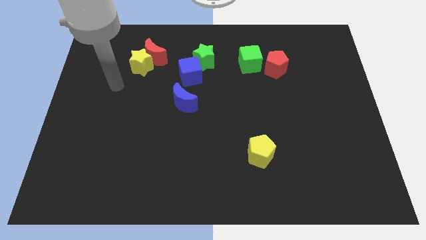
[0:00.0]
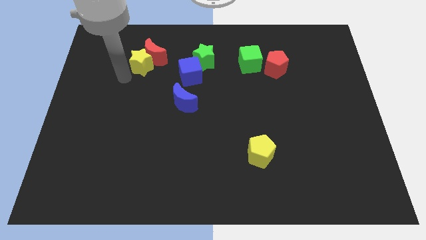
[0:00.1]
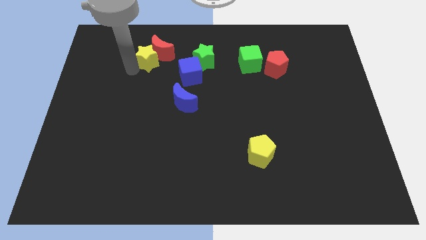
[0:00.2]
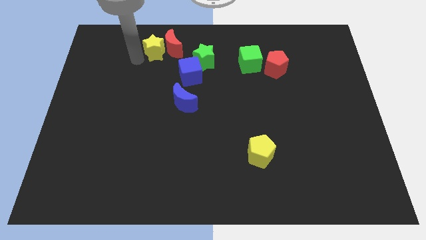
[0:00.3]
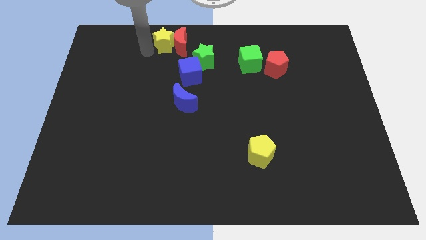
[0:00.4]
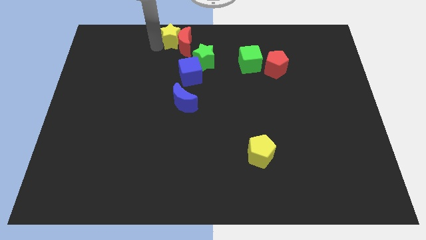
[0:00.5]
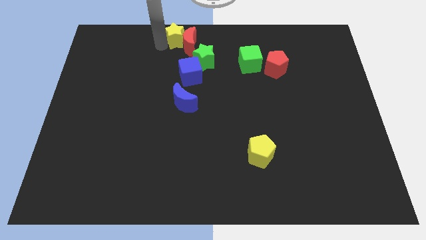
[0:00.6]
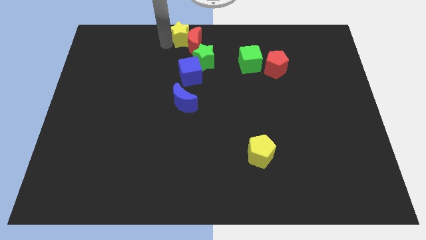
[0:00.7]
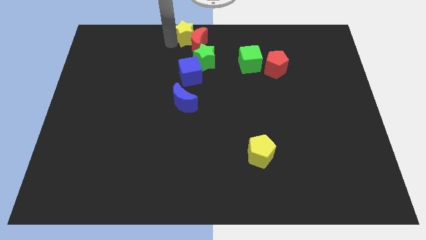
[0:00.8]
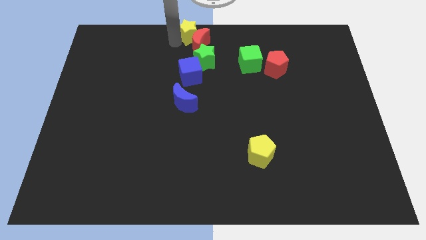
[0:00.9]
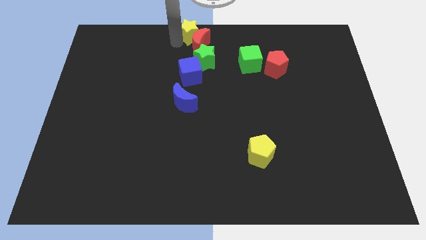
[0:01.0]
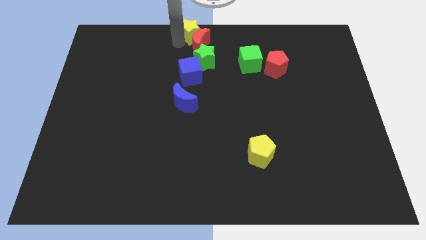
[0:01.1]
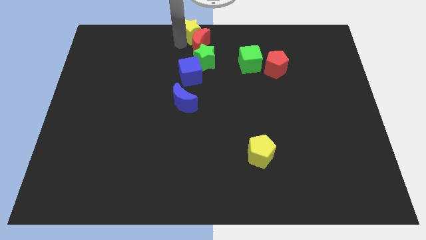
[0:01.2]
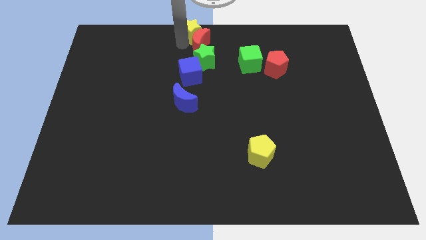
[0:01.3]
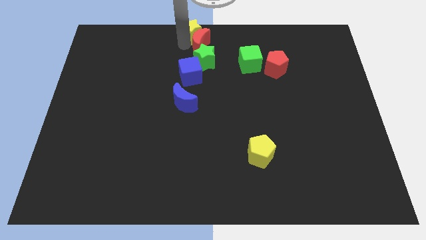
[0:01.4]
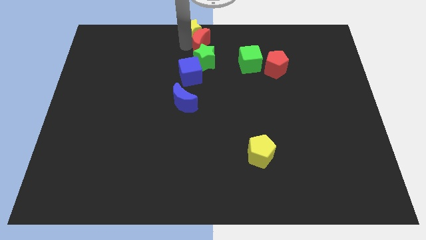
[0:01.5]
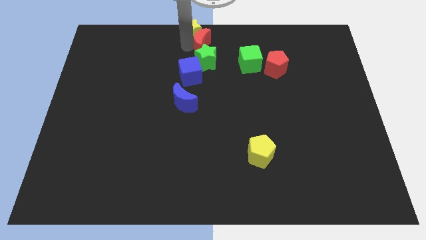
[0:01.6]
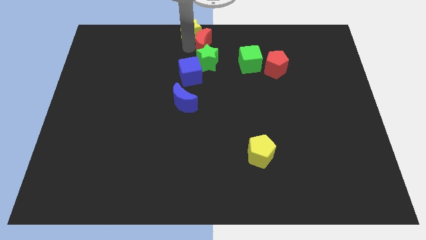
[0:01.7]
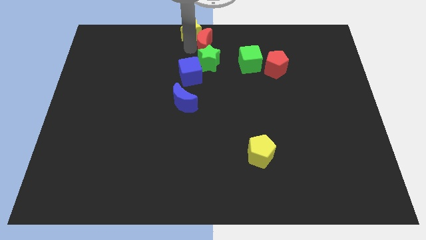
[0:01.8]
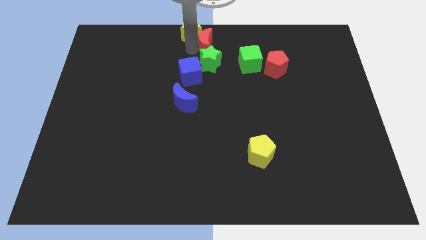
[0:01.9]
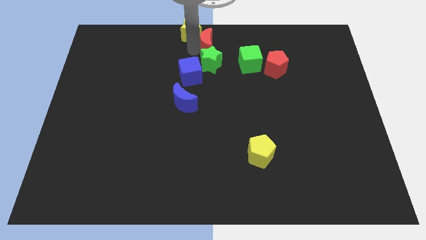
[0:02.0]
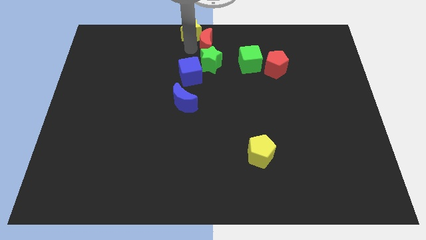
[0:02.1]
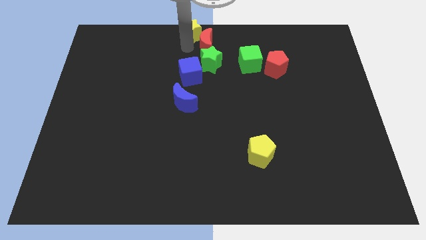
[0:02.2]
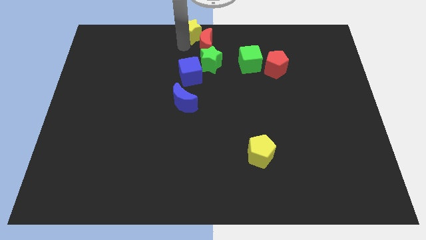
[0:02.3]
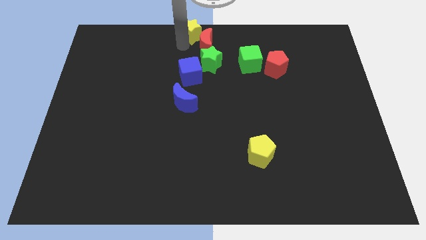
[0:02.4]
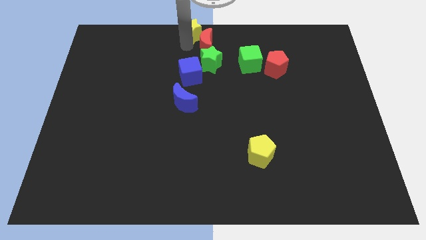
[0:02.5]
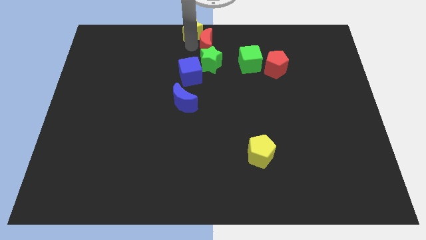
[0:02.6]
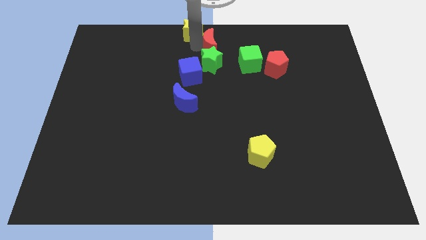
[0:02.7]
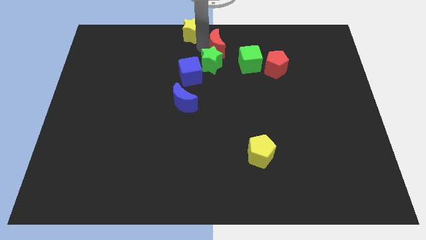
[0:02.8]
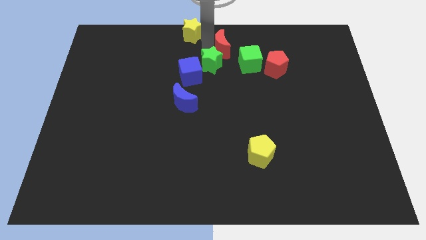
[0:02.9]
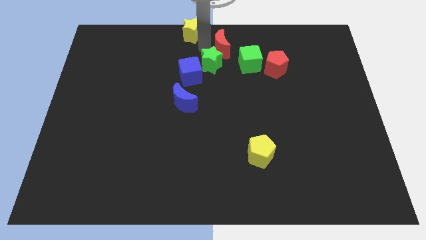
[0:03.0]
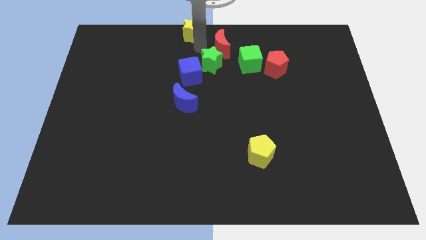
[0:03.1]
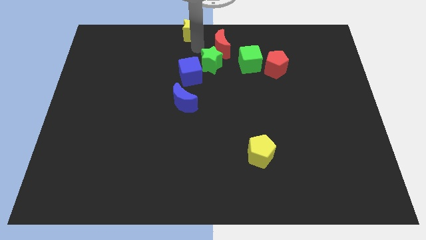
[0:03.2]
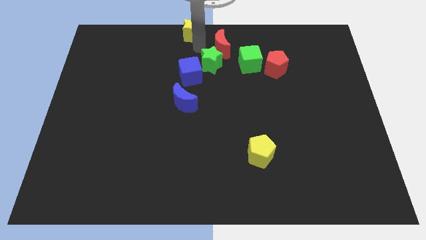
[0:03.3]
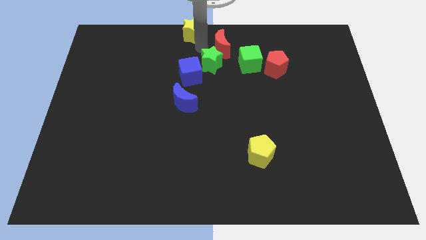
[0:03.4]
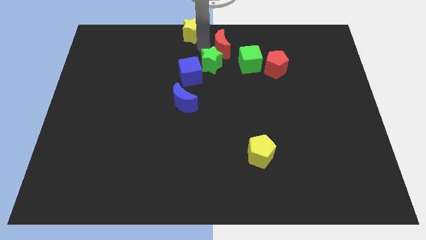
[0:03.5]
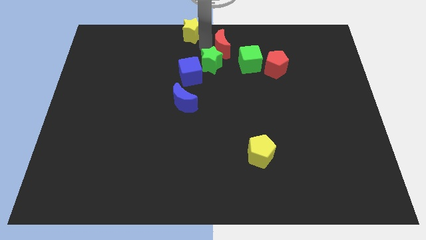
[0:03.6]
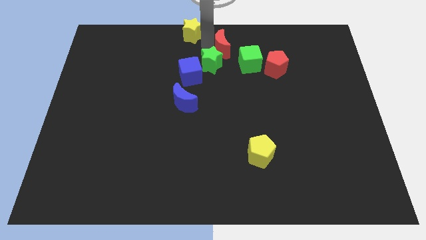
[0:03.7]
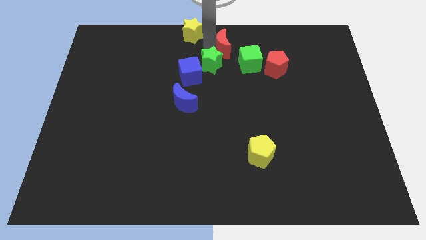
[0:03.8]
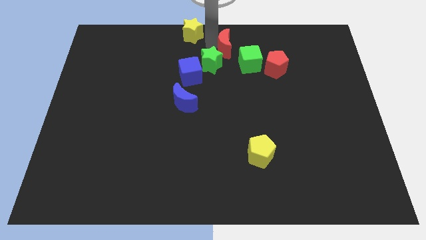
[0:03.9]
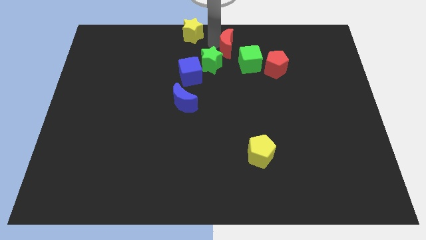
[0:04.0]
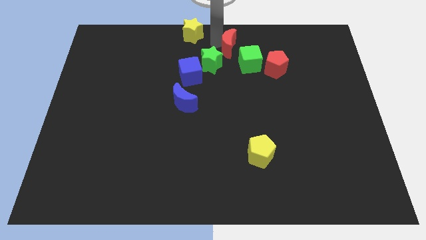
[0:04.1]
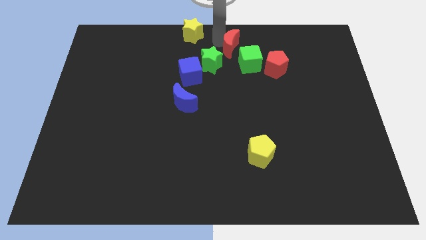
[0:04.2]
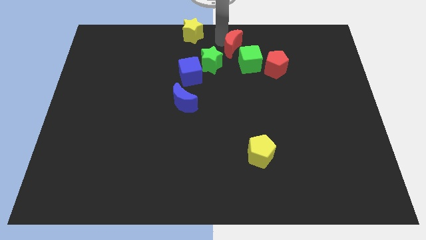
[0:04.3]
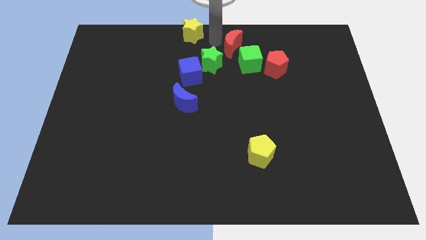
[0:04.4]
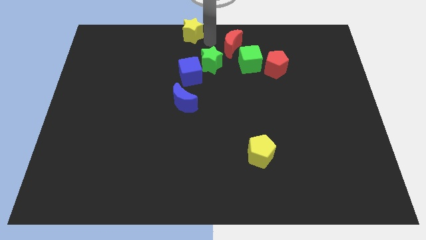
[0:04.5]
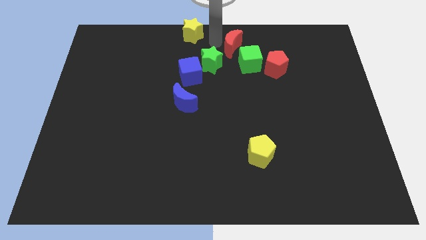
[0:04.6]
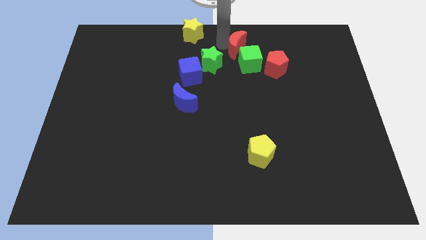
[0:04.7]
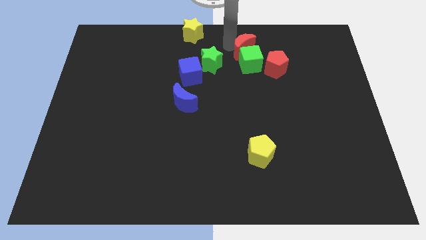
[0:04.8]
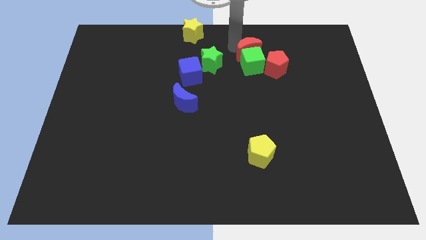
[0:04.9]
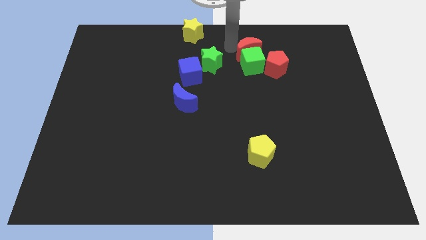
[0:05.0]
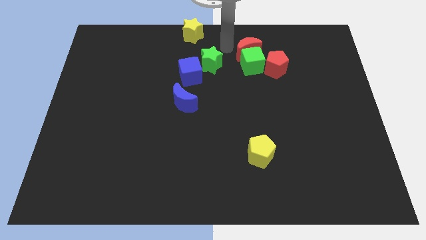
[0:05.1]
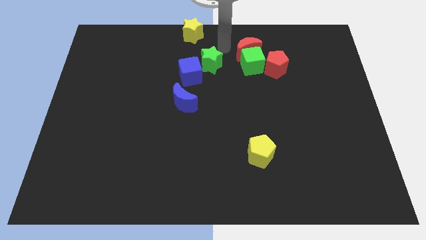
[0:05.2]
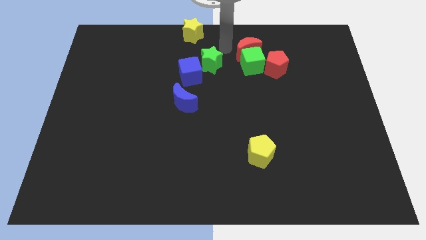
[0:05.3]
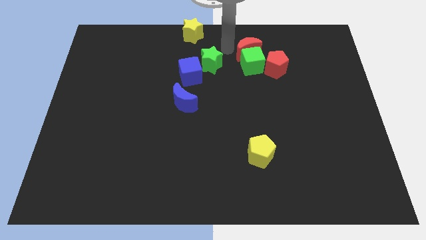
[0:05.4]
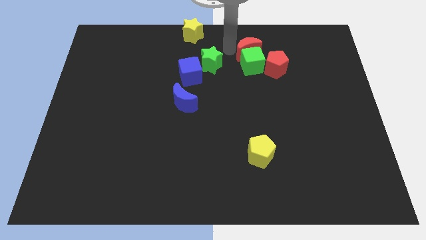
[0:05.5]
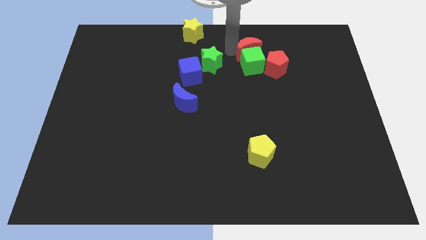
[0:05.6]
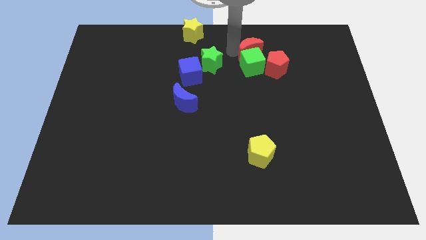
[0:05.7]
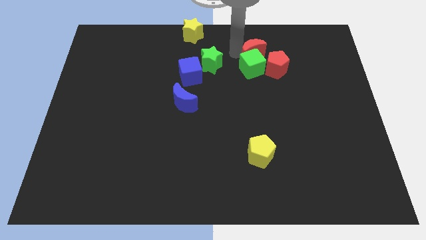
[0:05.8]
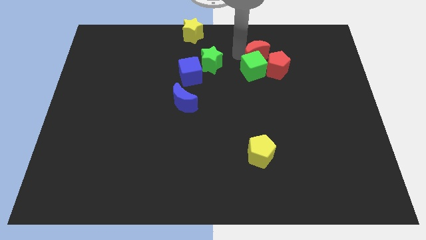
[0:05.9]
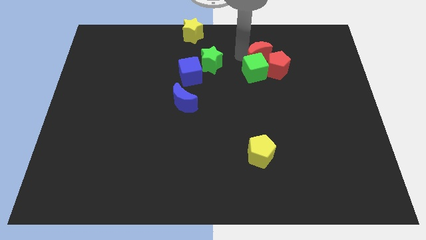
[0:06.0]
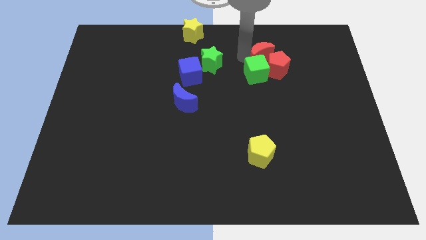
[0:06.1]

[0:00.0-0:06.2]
push the red moon next to the red pentagon

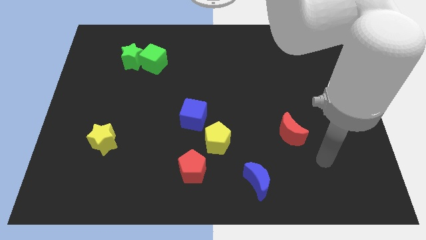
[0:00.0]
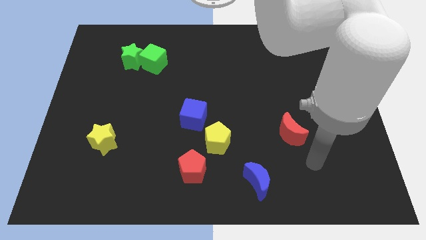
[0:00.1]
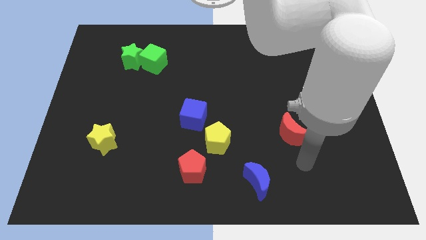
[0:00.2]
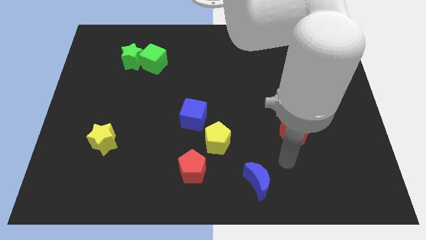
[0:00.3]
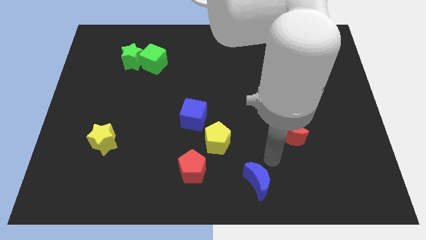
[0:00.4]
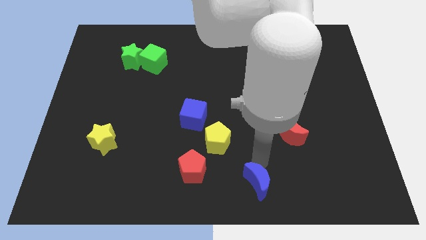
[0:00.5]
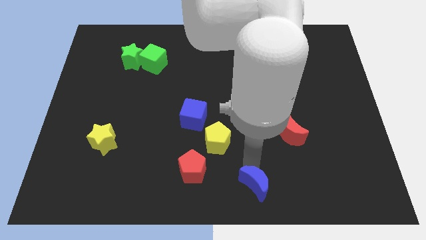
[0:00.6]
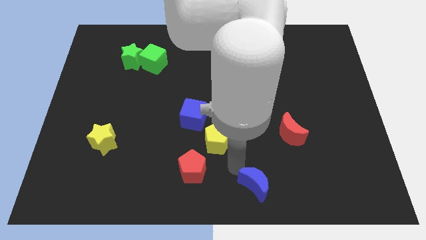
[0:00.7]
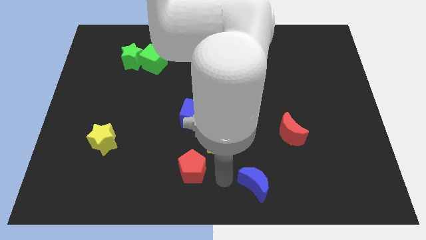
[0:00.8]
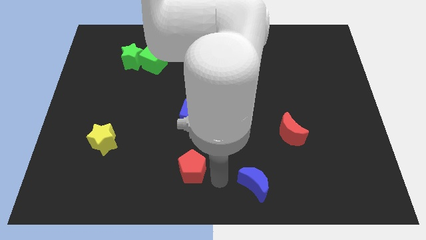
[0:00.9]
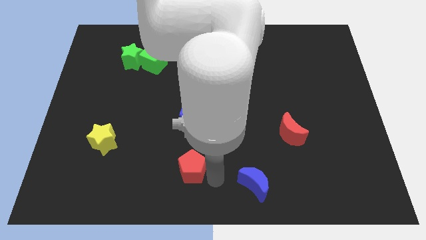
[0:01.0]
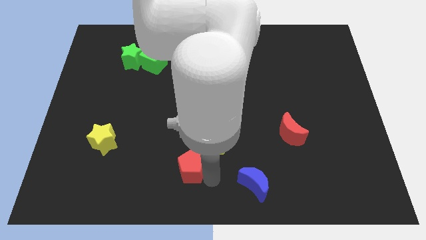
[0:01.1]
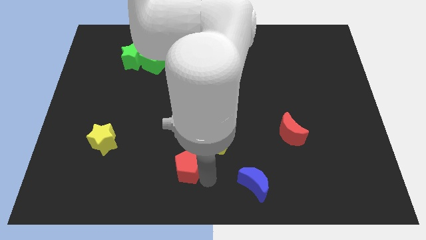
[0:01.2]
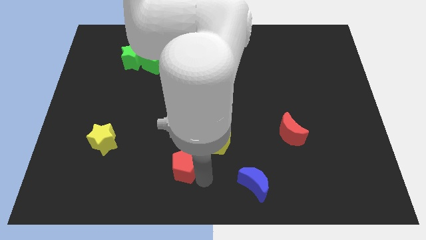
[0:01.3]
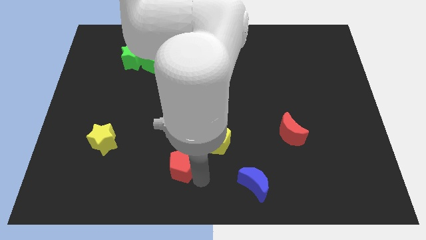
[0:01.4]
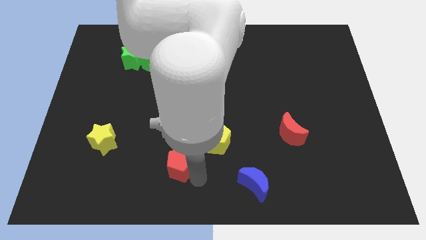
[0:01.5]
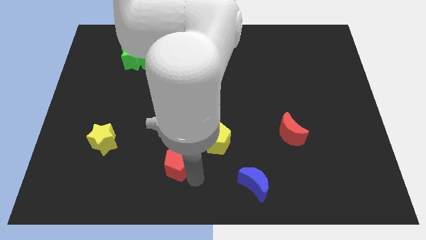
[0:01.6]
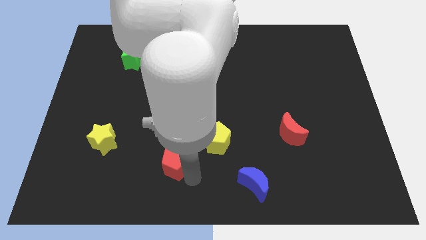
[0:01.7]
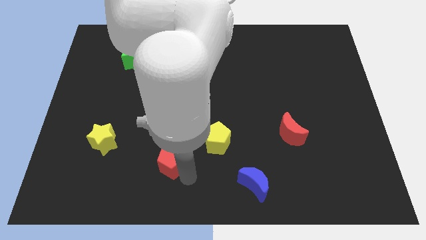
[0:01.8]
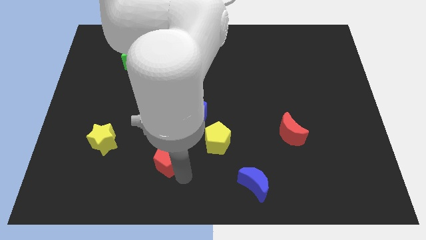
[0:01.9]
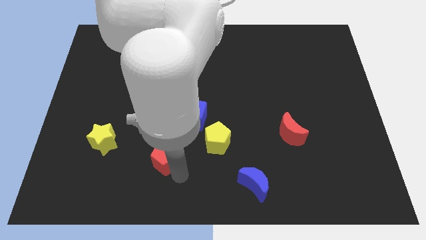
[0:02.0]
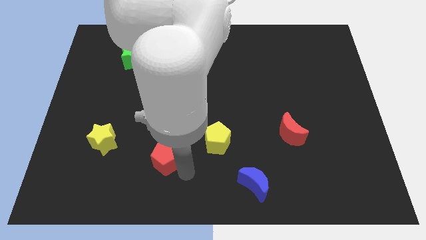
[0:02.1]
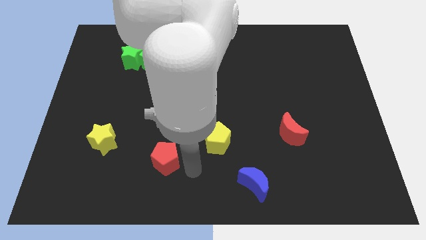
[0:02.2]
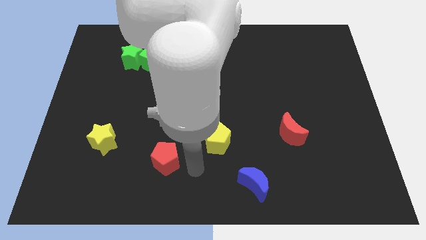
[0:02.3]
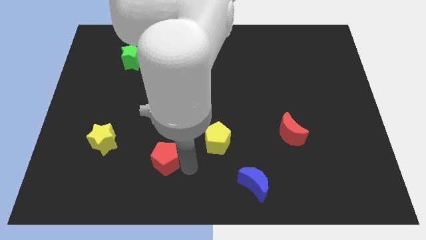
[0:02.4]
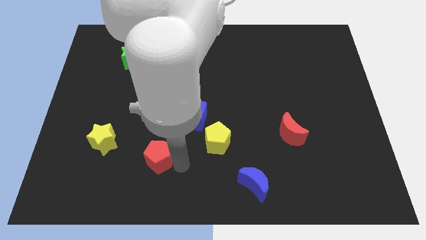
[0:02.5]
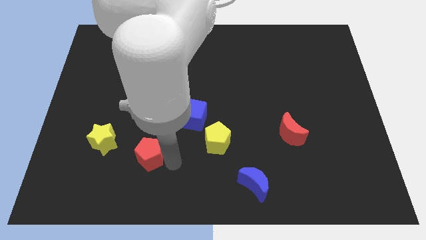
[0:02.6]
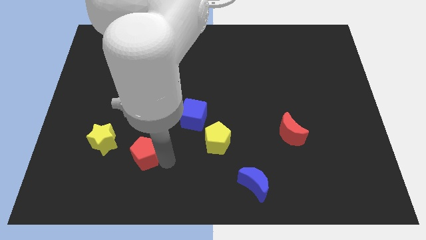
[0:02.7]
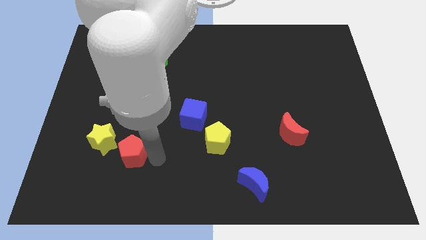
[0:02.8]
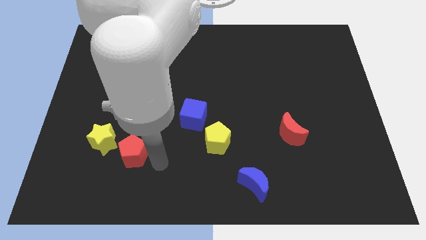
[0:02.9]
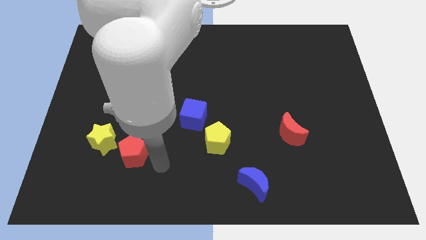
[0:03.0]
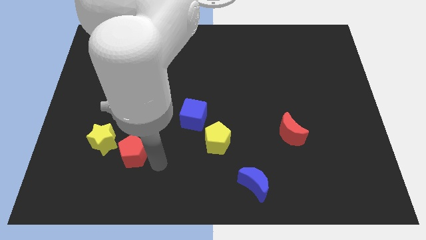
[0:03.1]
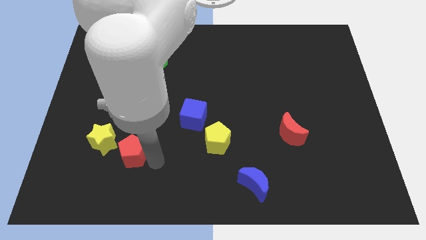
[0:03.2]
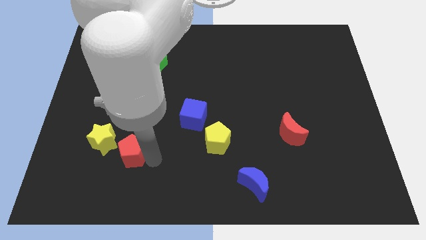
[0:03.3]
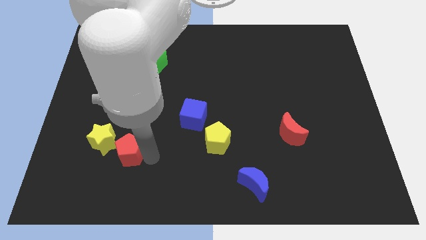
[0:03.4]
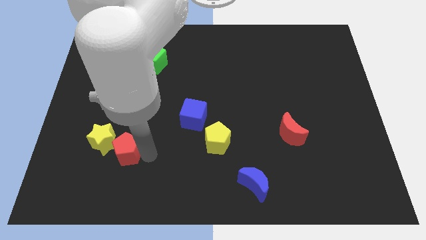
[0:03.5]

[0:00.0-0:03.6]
push the red pentagon towards the yellow star
